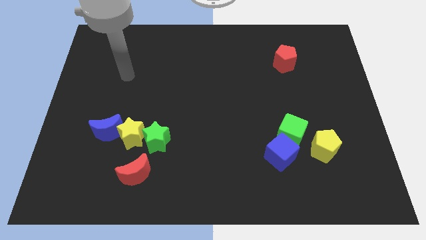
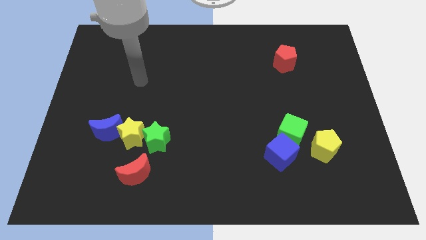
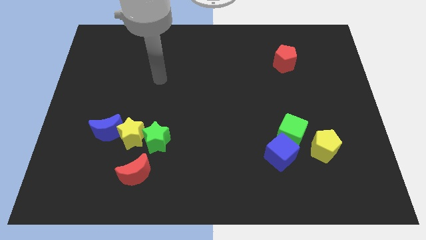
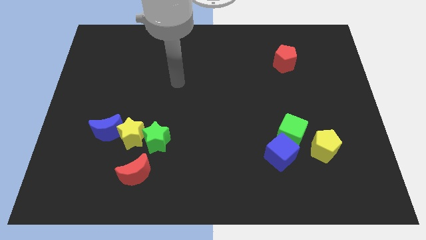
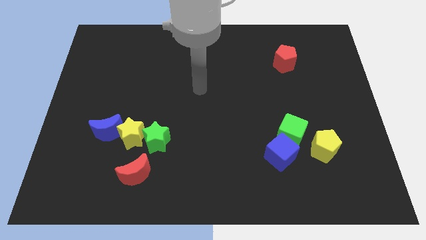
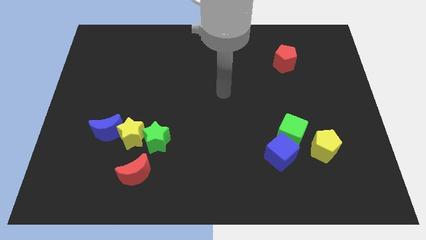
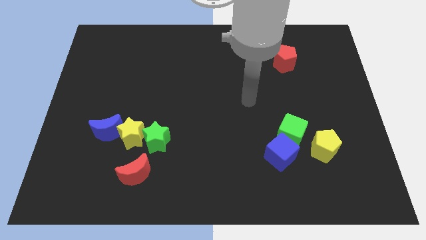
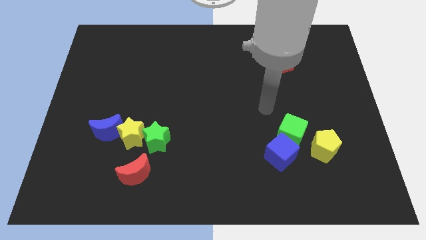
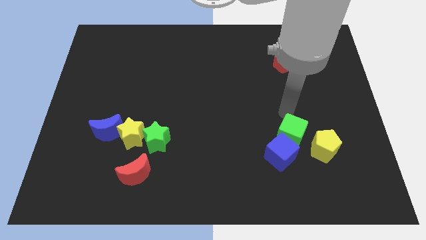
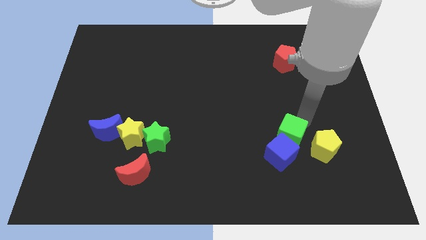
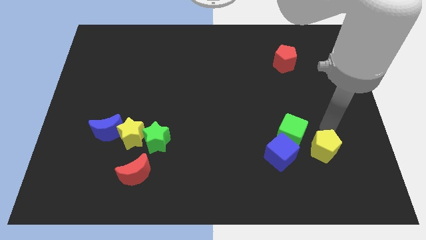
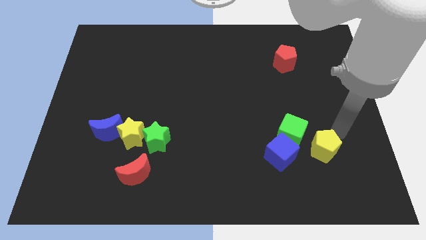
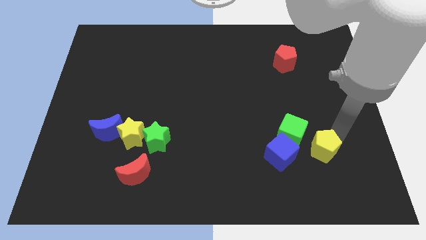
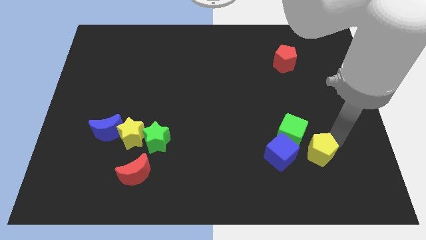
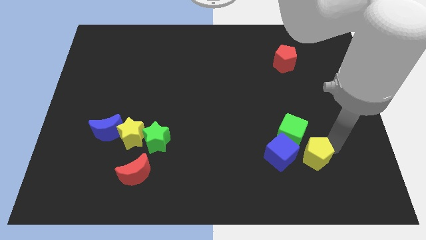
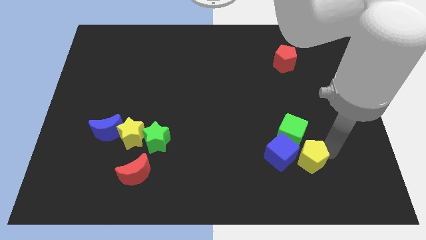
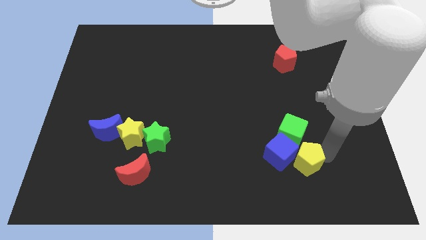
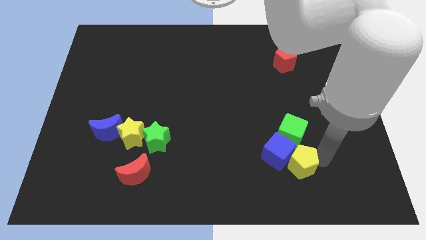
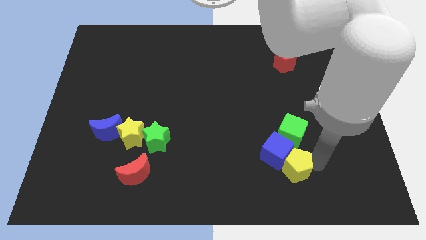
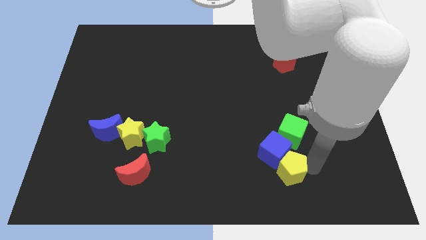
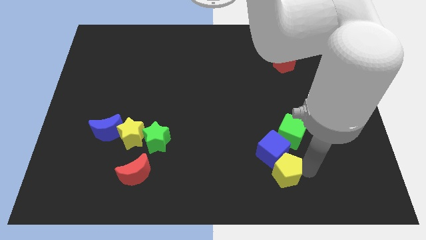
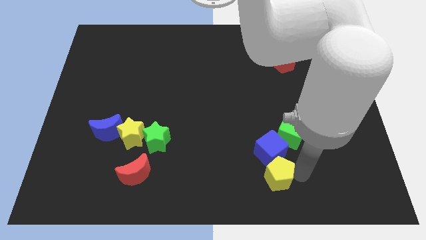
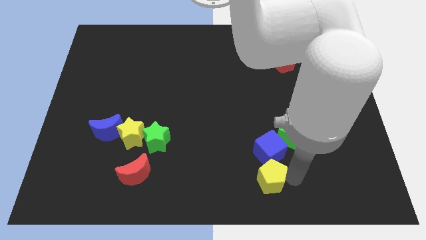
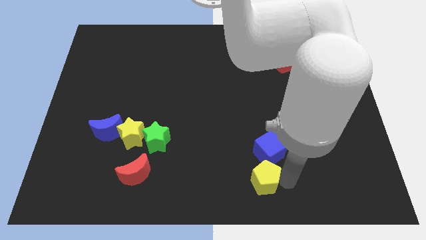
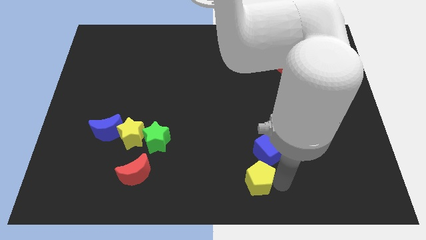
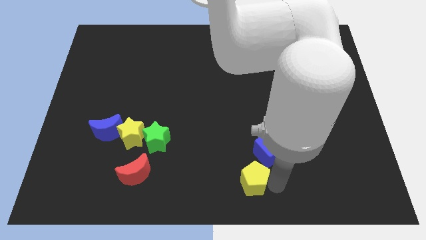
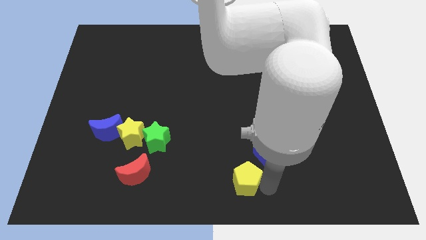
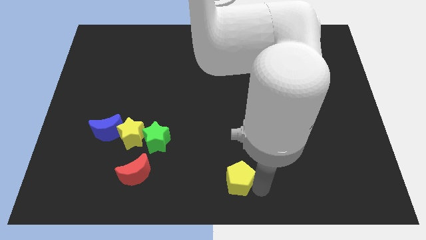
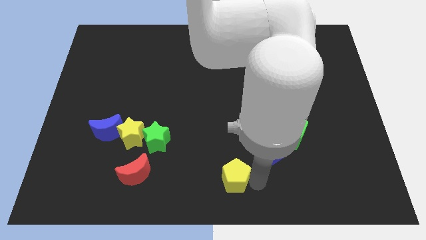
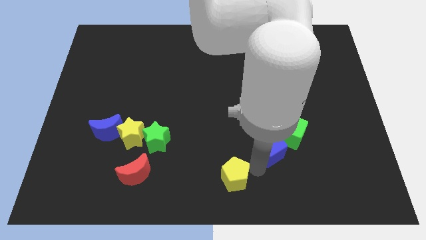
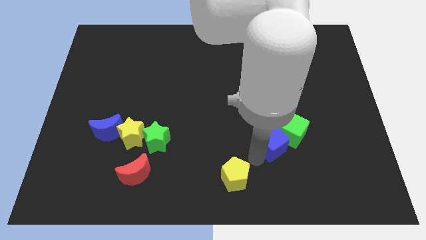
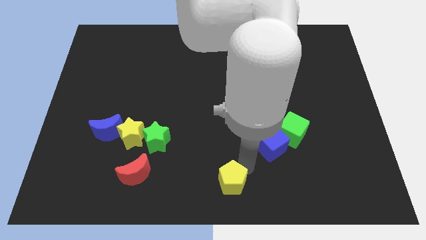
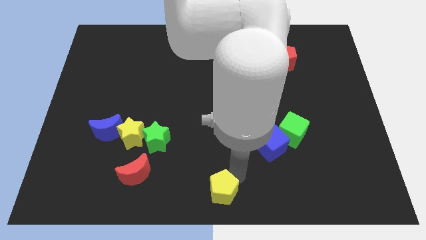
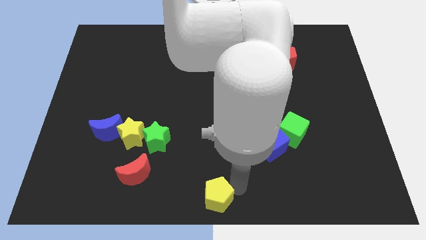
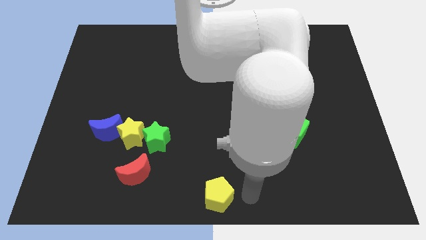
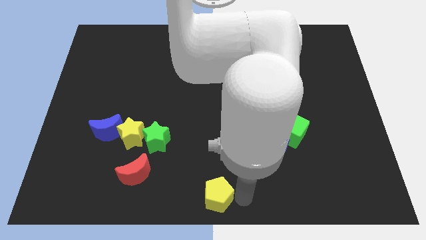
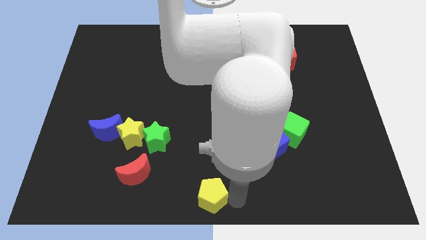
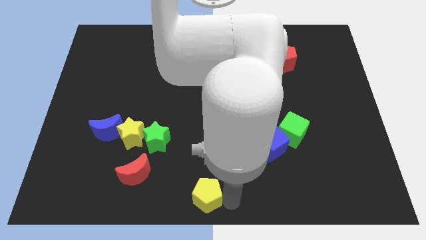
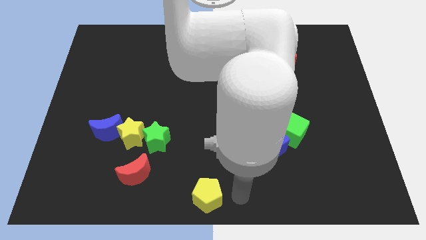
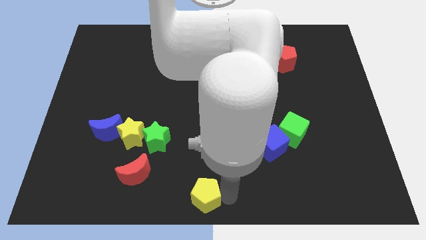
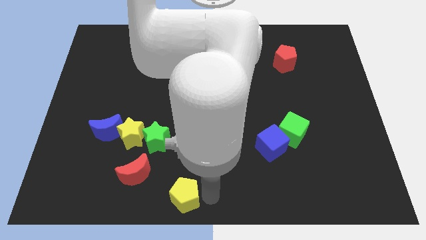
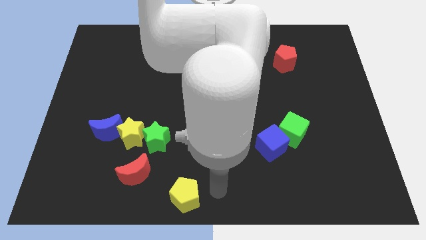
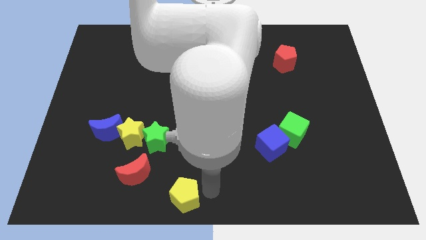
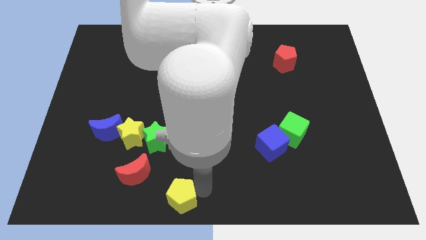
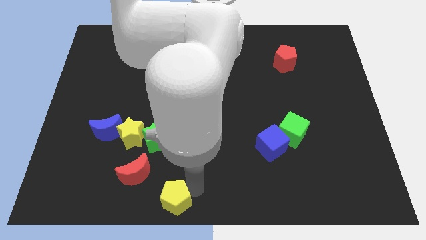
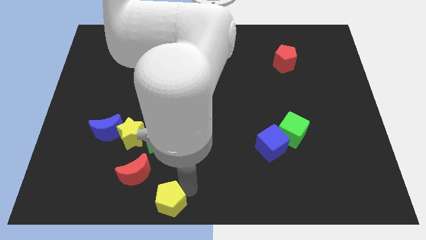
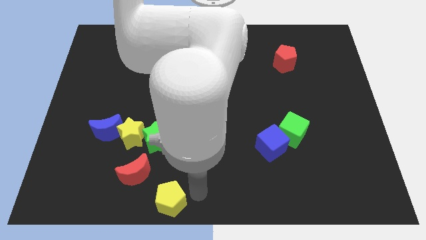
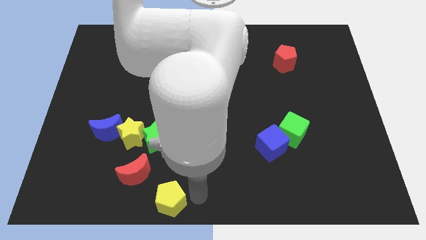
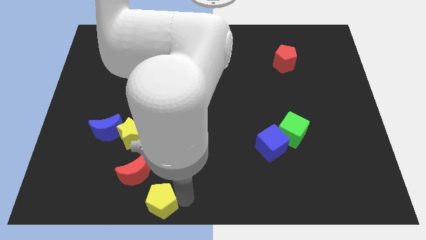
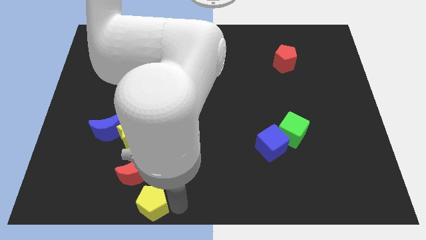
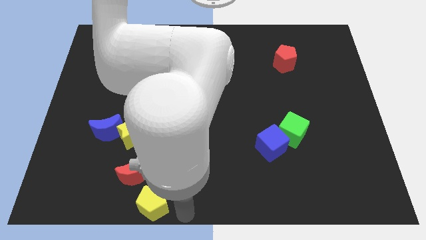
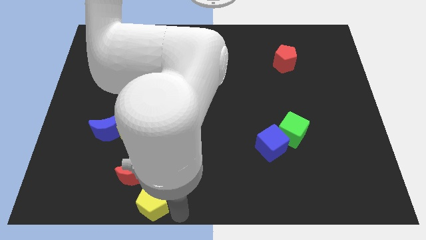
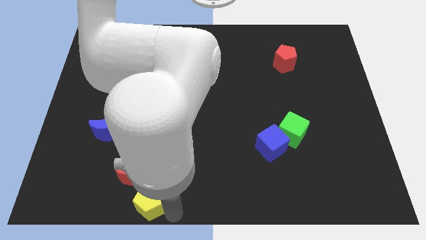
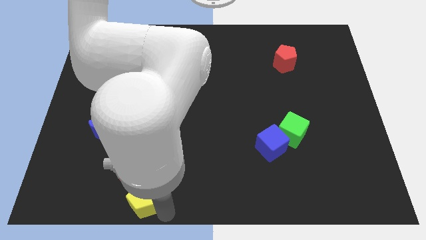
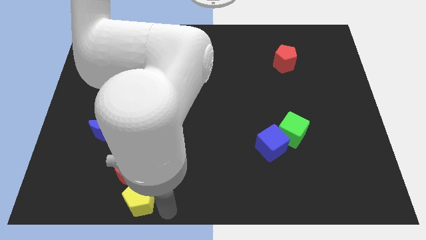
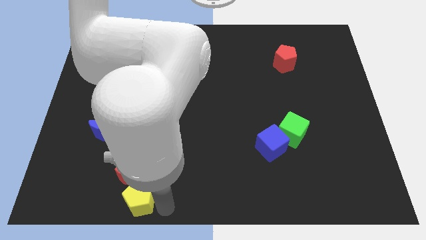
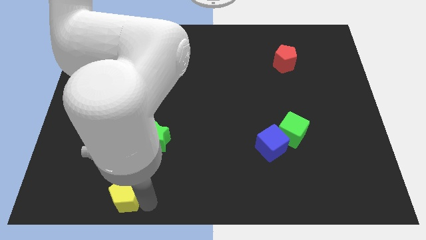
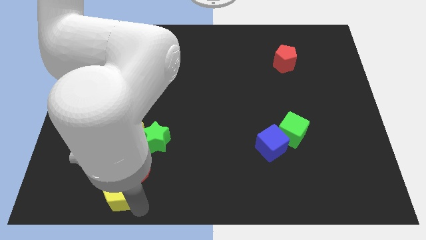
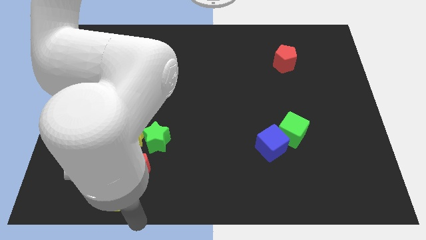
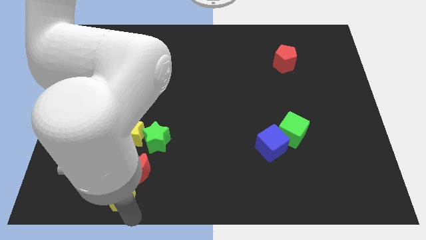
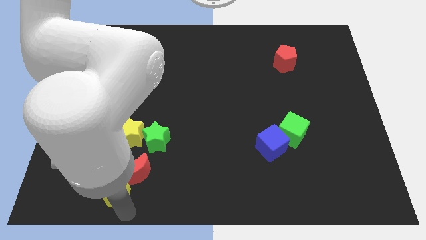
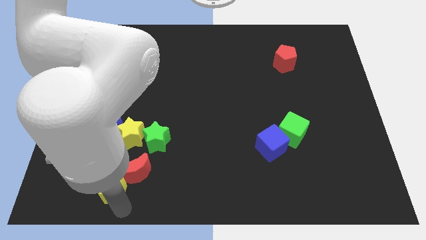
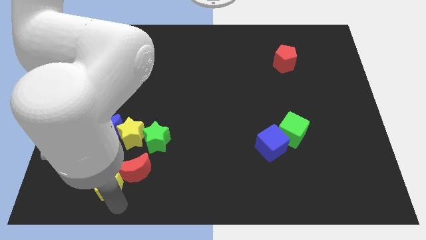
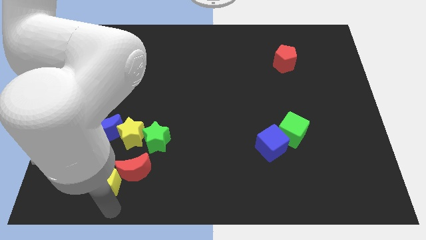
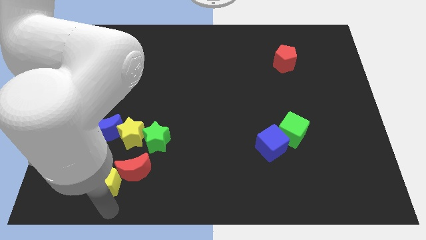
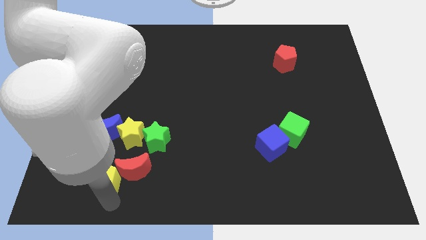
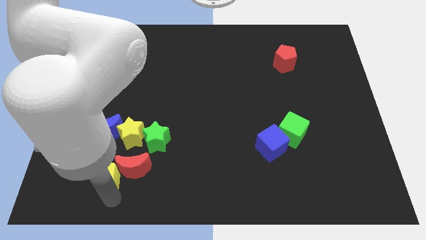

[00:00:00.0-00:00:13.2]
move the yellow pentagon diagonally down and to the left of the yellow star
